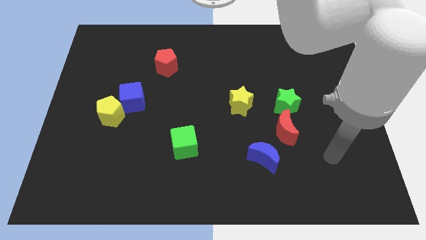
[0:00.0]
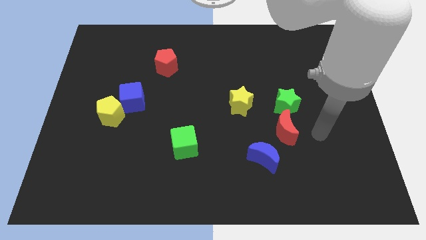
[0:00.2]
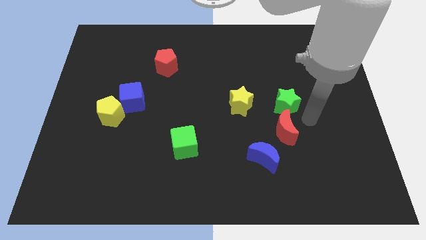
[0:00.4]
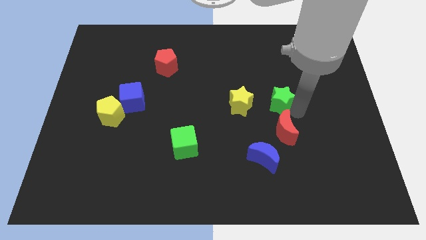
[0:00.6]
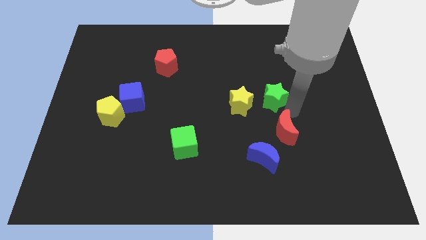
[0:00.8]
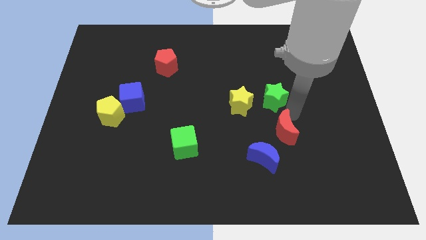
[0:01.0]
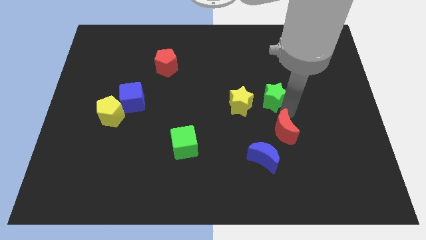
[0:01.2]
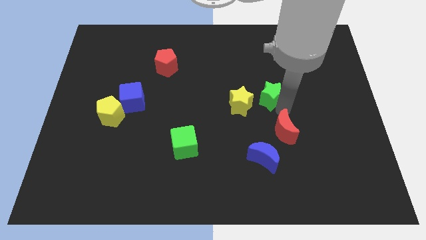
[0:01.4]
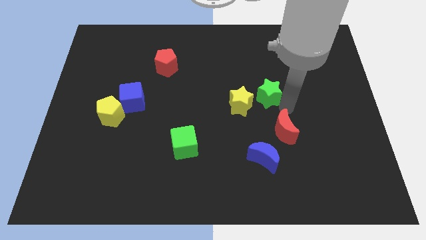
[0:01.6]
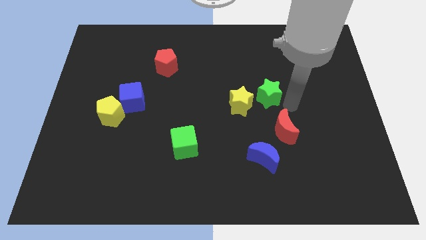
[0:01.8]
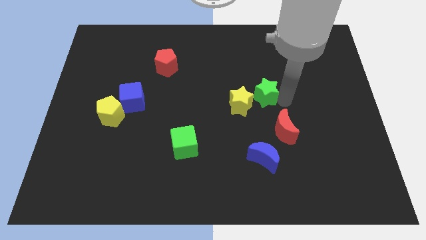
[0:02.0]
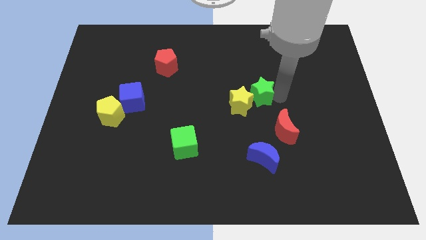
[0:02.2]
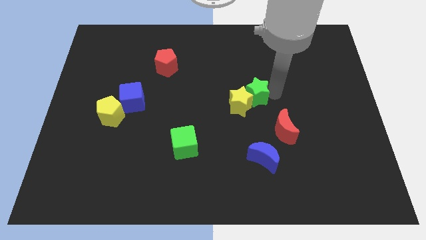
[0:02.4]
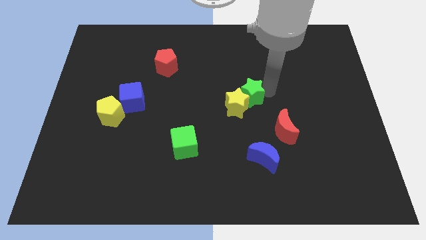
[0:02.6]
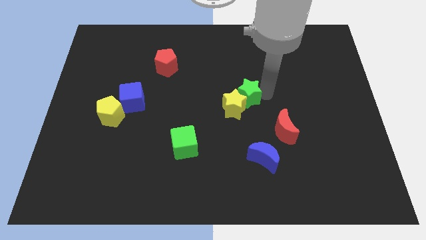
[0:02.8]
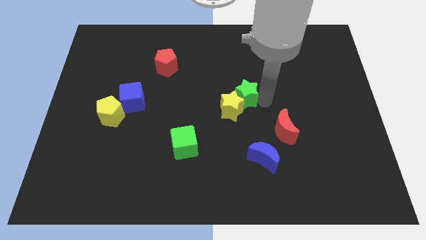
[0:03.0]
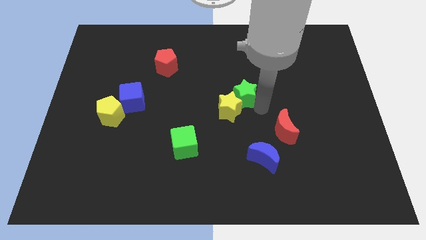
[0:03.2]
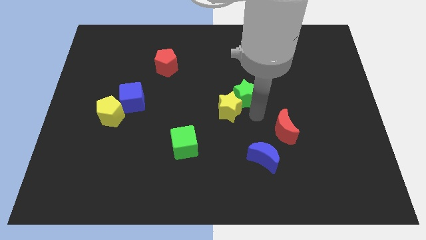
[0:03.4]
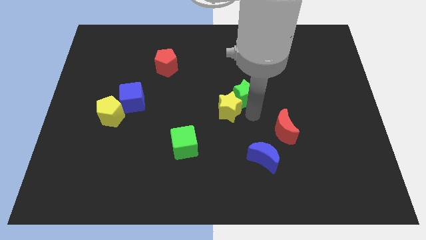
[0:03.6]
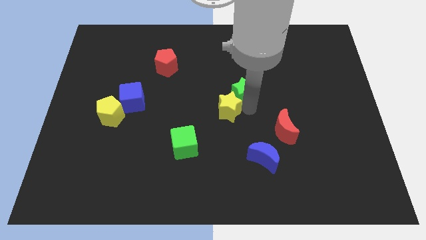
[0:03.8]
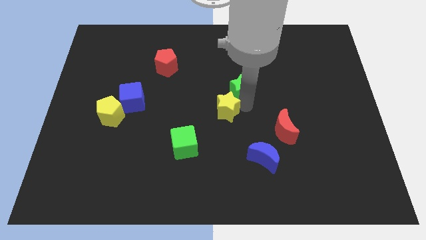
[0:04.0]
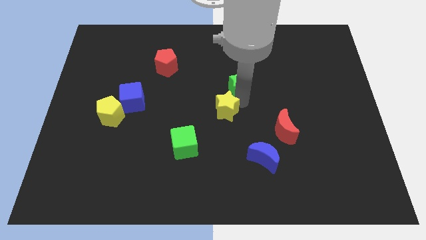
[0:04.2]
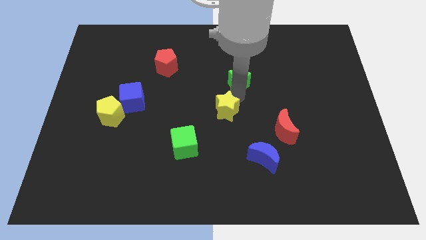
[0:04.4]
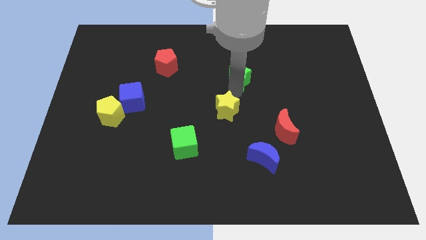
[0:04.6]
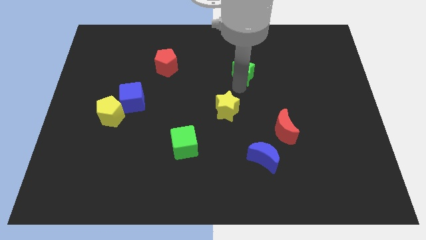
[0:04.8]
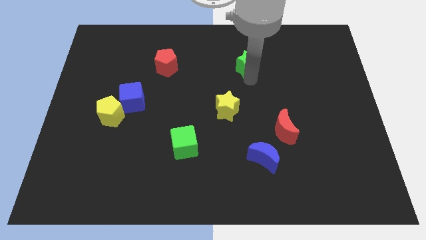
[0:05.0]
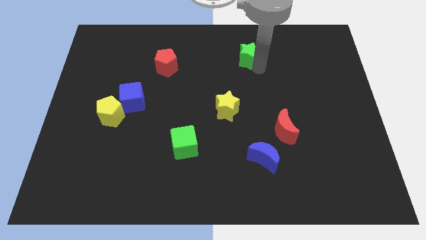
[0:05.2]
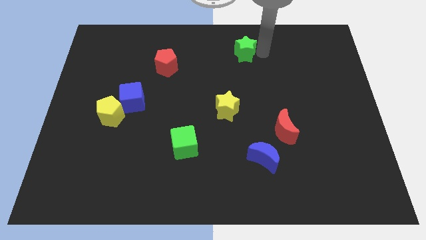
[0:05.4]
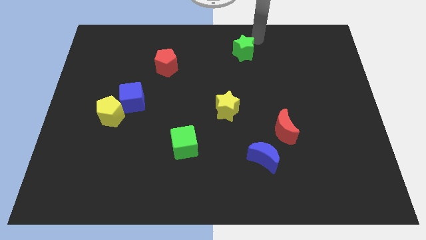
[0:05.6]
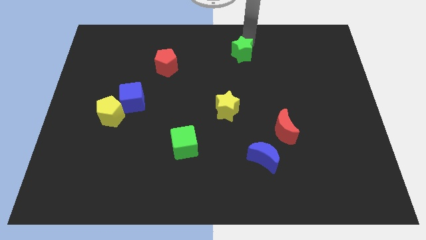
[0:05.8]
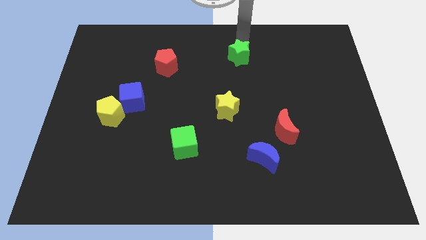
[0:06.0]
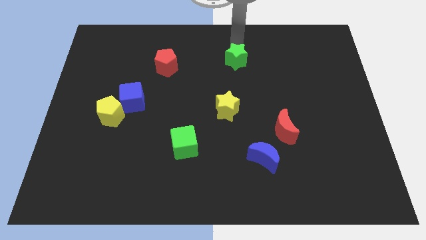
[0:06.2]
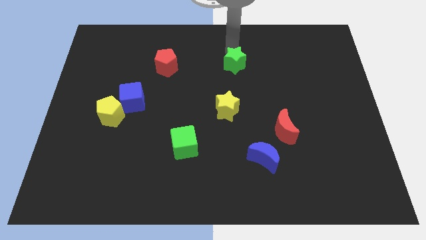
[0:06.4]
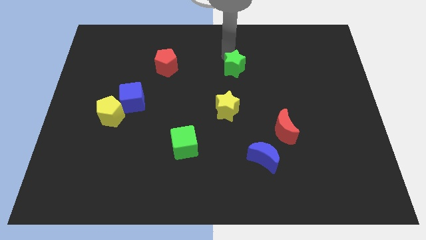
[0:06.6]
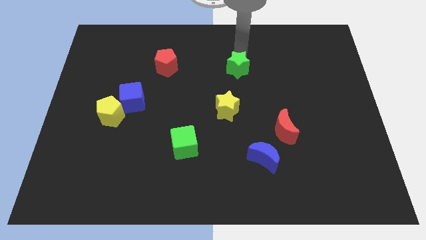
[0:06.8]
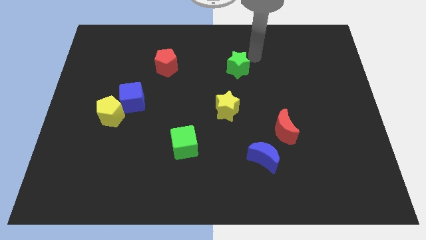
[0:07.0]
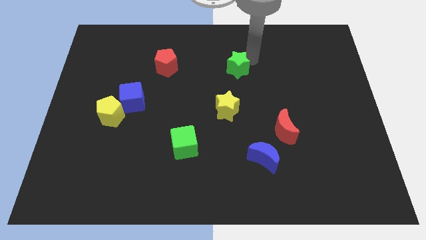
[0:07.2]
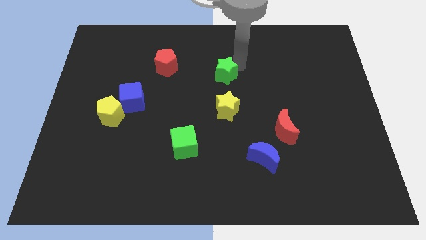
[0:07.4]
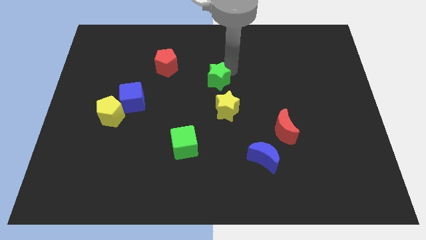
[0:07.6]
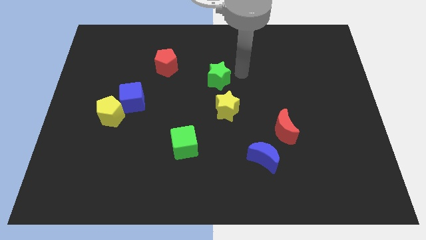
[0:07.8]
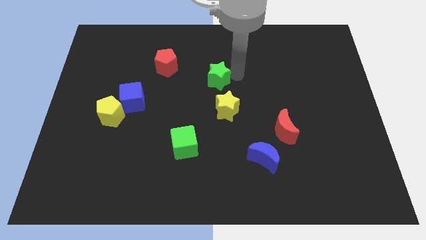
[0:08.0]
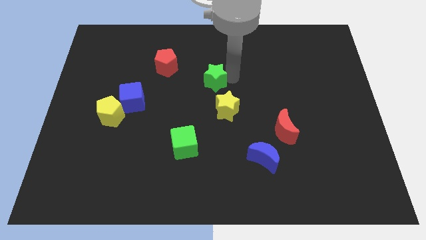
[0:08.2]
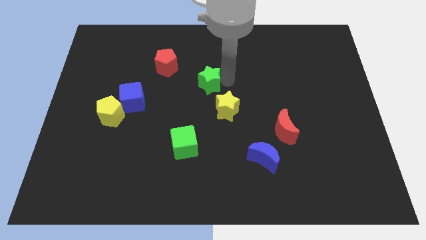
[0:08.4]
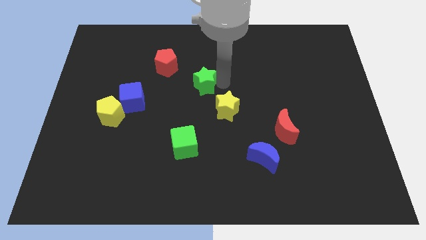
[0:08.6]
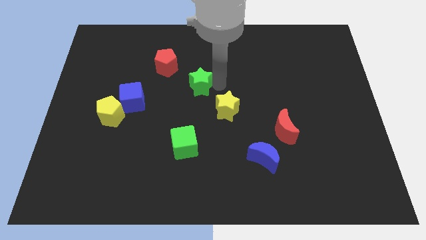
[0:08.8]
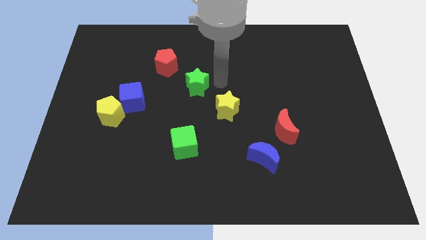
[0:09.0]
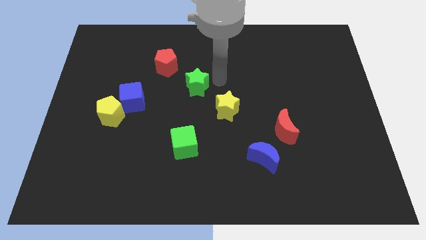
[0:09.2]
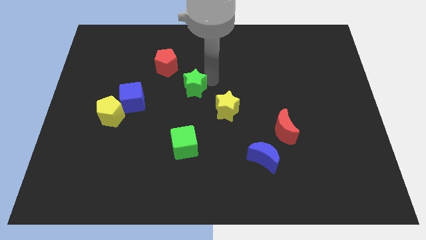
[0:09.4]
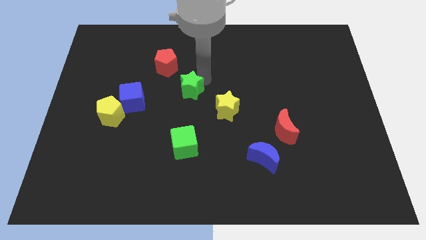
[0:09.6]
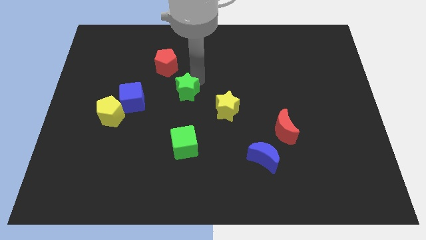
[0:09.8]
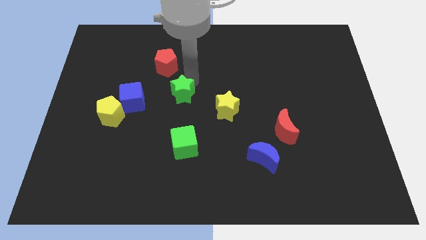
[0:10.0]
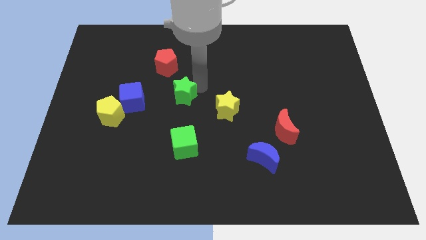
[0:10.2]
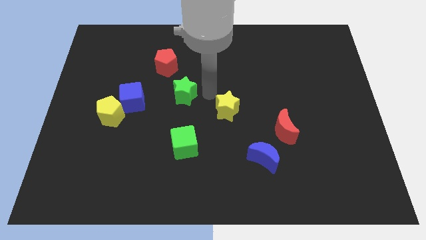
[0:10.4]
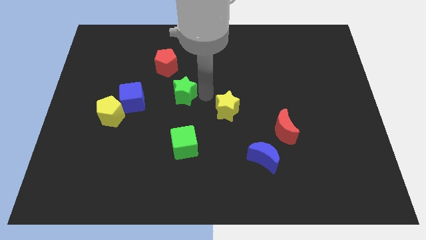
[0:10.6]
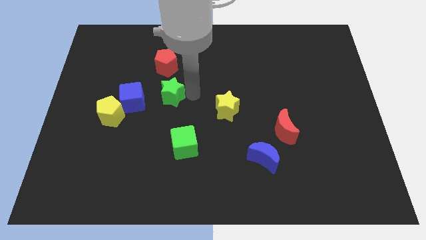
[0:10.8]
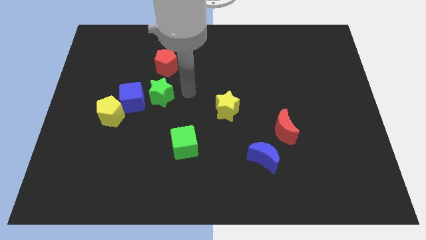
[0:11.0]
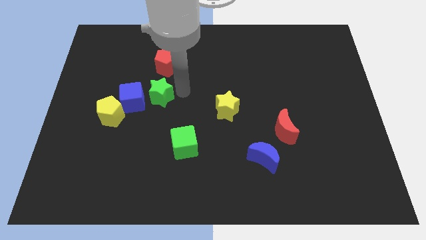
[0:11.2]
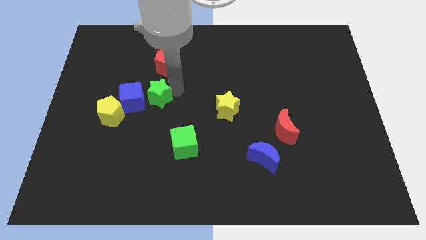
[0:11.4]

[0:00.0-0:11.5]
slide the green star to the top right of the yellow pentagon

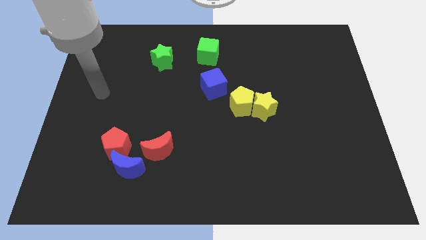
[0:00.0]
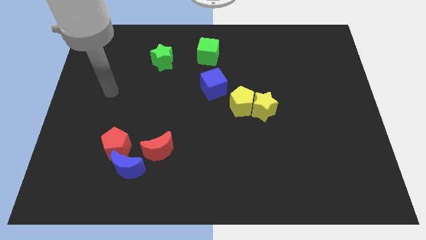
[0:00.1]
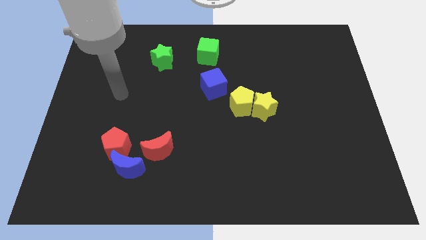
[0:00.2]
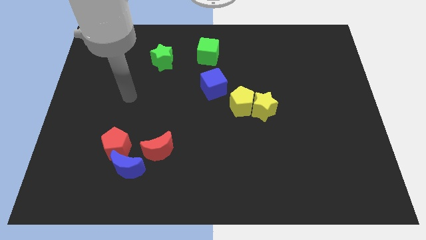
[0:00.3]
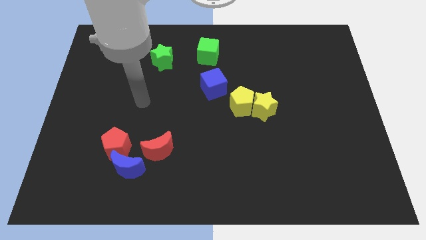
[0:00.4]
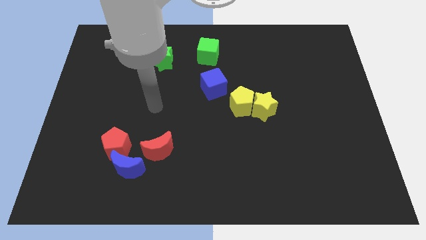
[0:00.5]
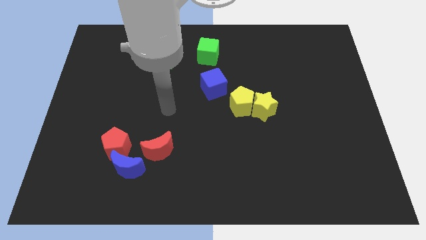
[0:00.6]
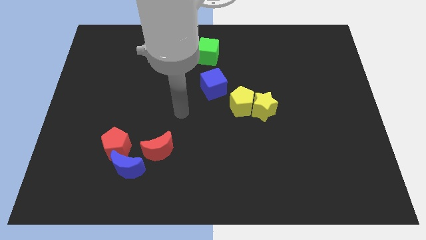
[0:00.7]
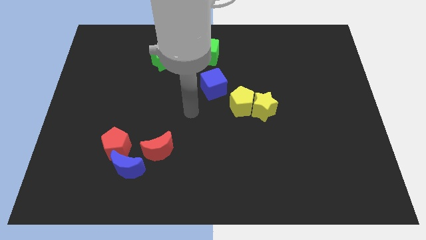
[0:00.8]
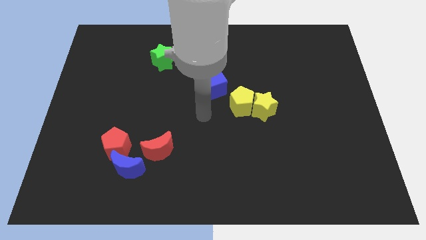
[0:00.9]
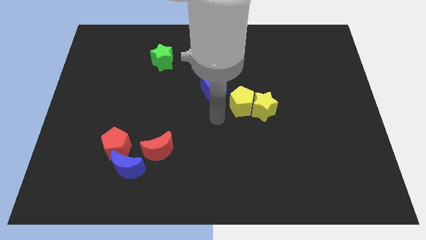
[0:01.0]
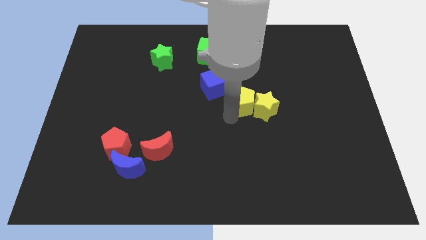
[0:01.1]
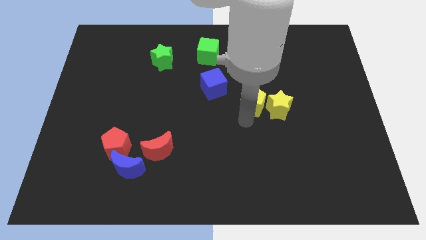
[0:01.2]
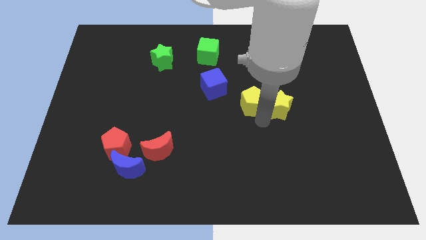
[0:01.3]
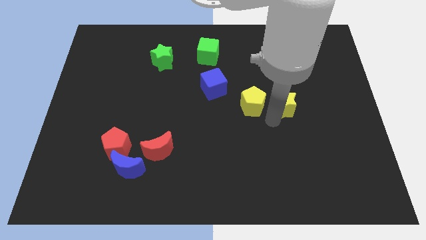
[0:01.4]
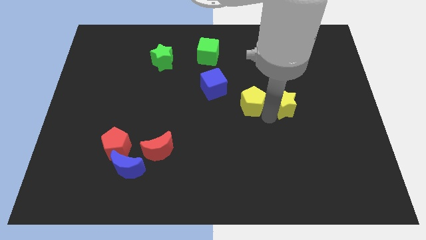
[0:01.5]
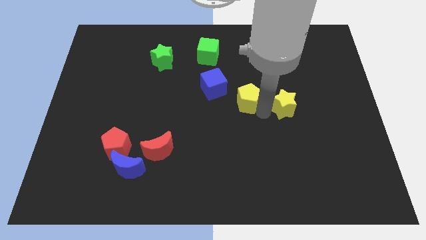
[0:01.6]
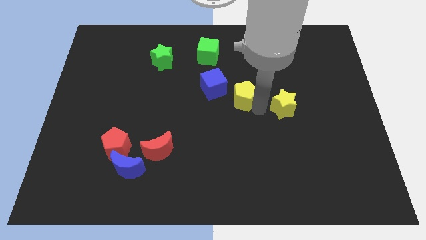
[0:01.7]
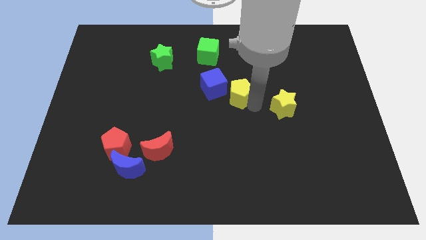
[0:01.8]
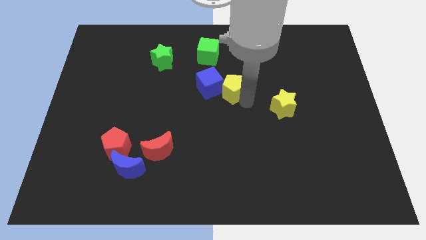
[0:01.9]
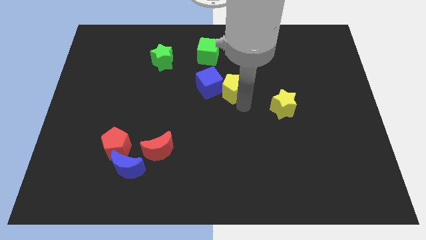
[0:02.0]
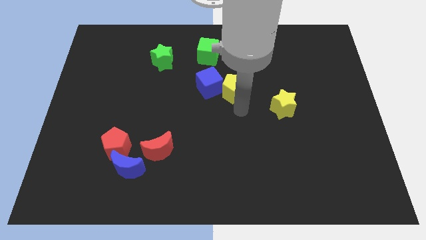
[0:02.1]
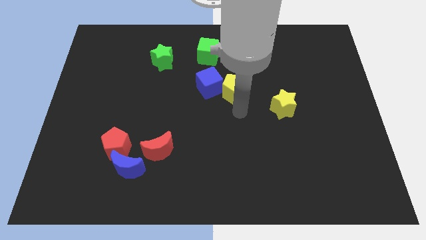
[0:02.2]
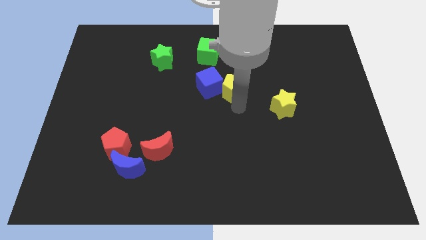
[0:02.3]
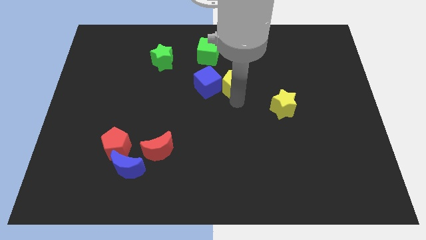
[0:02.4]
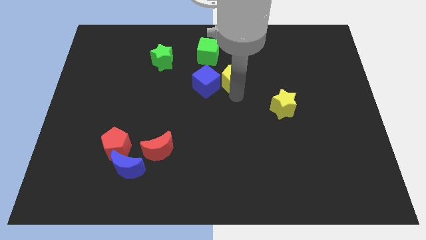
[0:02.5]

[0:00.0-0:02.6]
move the yellow pentagon diagonally down and to the right of the green cube
